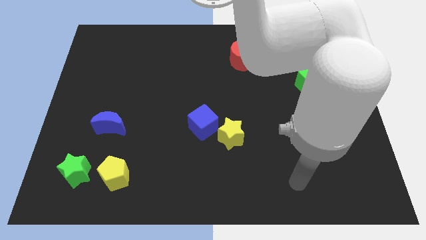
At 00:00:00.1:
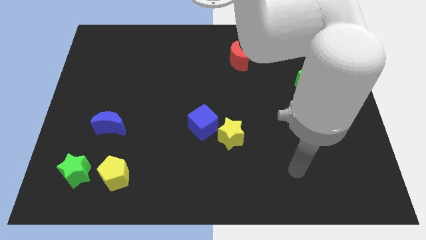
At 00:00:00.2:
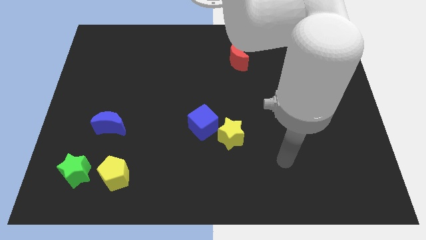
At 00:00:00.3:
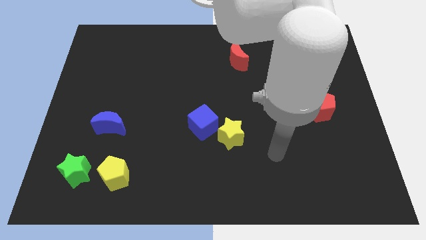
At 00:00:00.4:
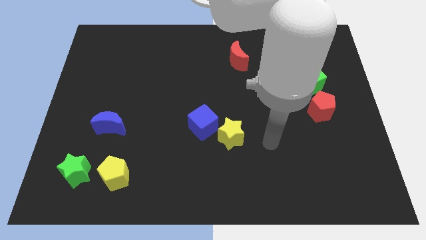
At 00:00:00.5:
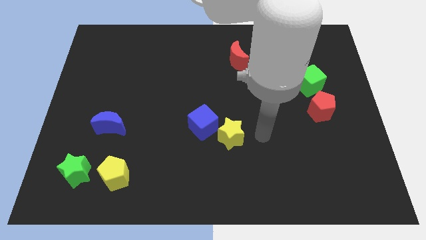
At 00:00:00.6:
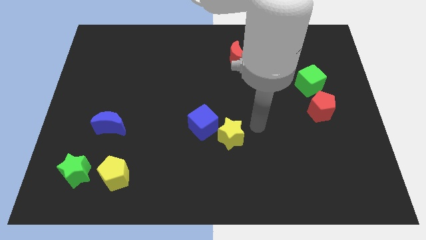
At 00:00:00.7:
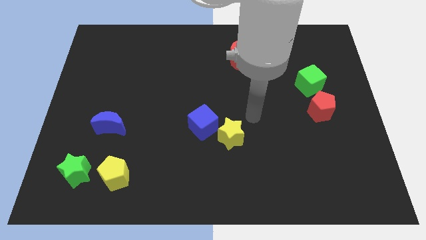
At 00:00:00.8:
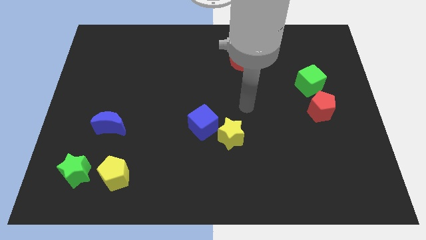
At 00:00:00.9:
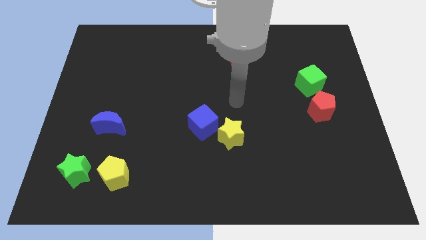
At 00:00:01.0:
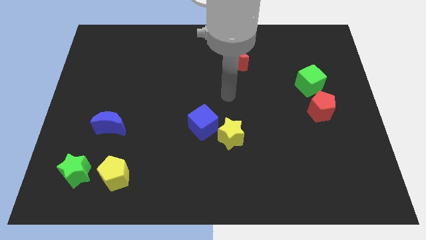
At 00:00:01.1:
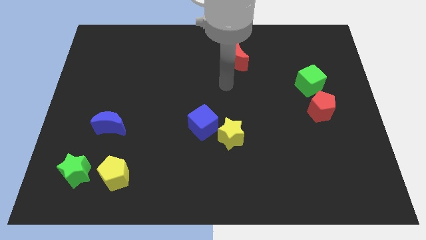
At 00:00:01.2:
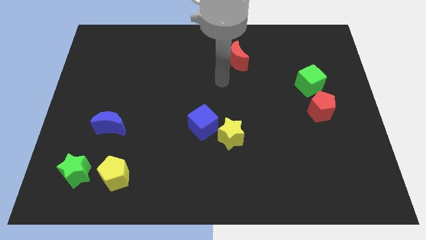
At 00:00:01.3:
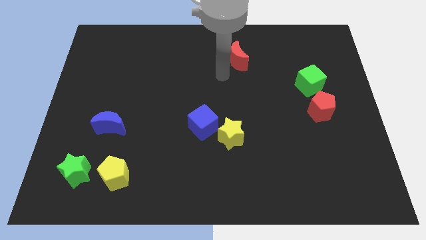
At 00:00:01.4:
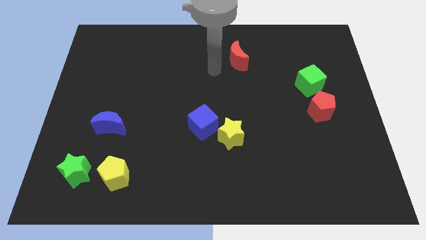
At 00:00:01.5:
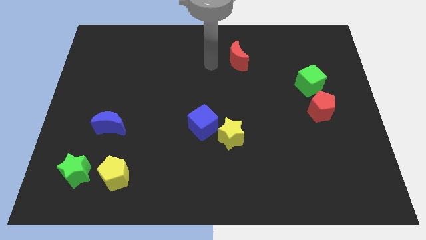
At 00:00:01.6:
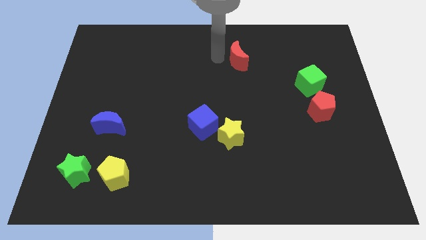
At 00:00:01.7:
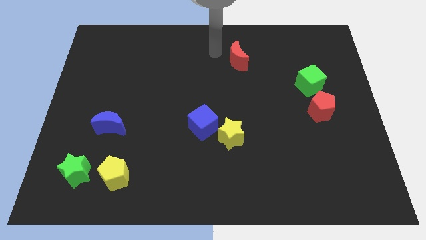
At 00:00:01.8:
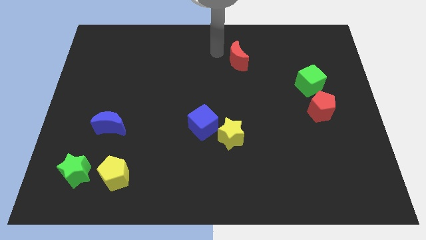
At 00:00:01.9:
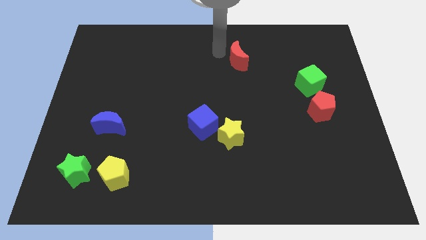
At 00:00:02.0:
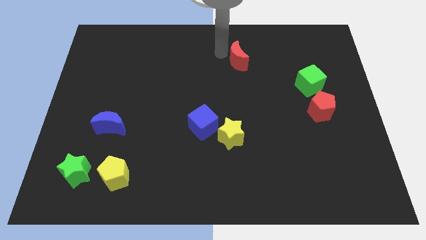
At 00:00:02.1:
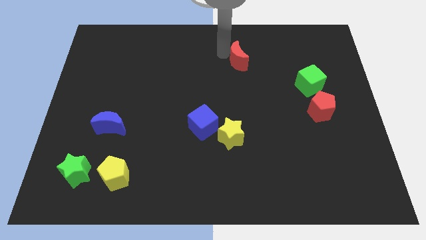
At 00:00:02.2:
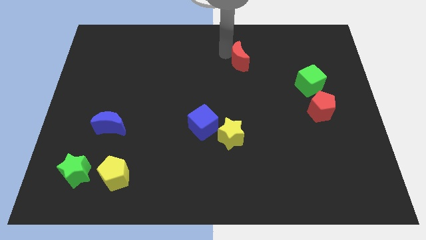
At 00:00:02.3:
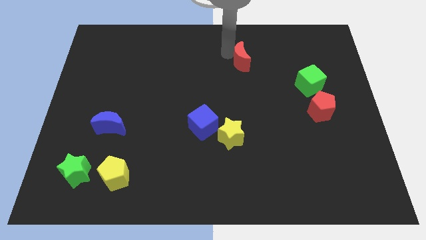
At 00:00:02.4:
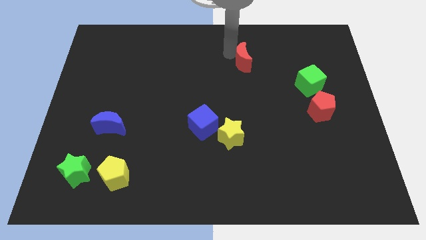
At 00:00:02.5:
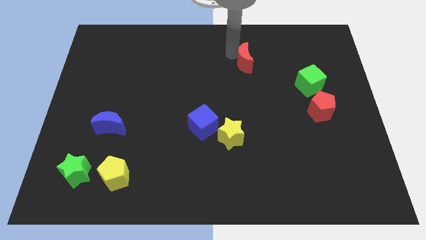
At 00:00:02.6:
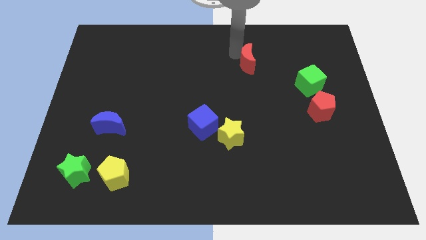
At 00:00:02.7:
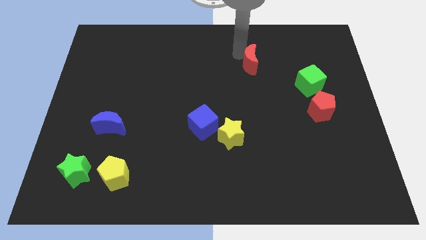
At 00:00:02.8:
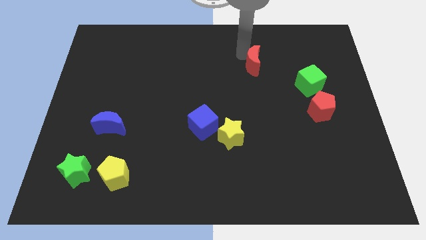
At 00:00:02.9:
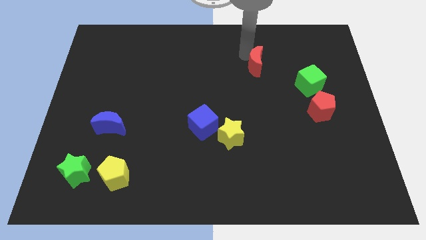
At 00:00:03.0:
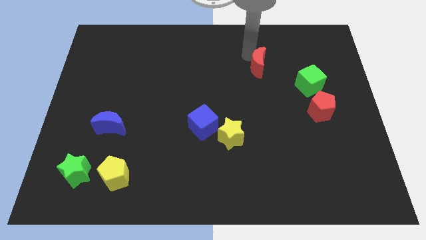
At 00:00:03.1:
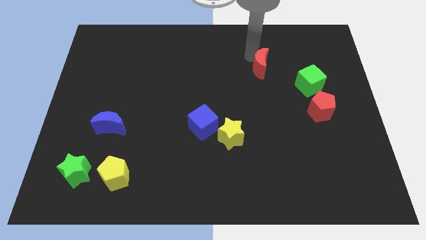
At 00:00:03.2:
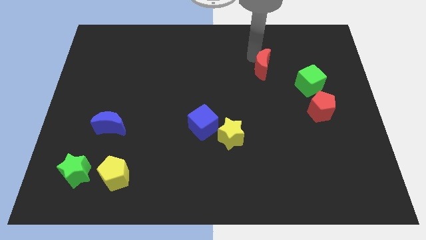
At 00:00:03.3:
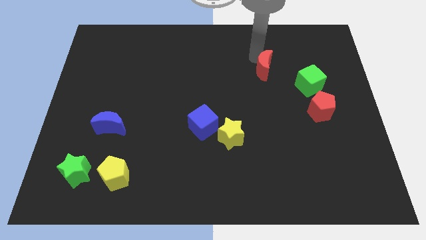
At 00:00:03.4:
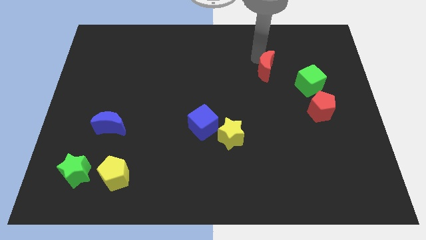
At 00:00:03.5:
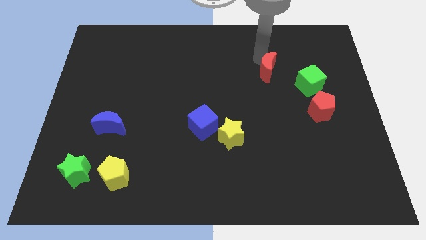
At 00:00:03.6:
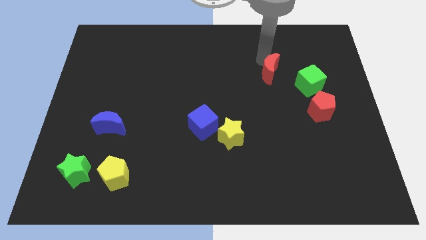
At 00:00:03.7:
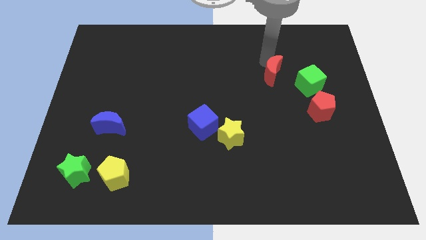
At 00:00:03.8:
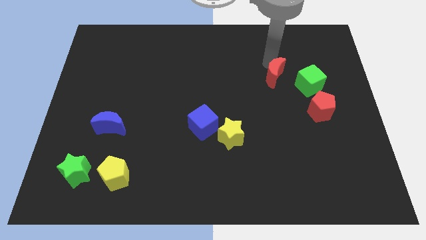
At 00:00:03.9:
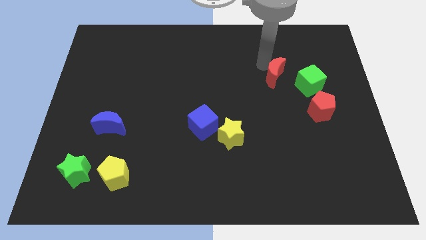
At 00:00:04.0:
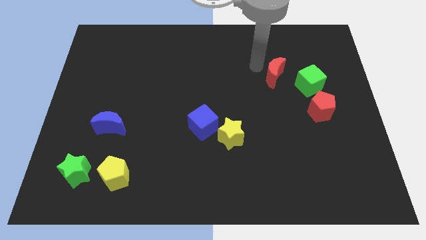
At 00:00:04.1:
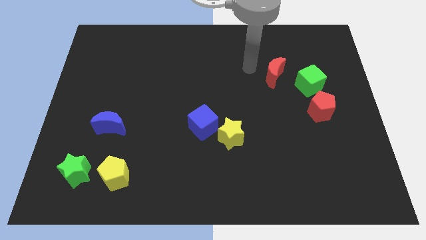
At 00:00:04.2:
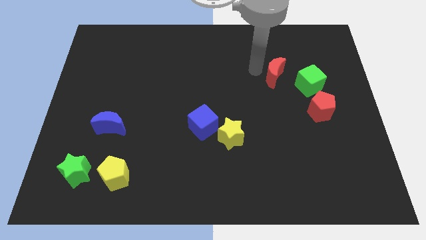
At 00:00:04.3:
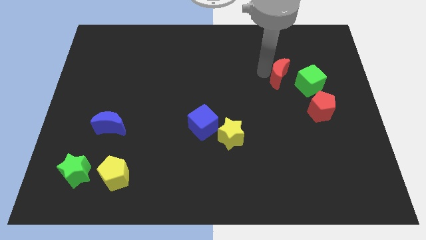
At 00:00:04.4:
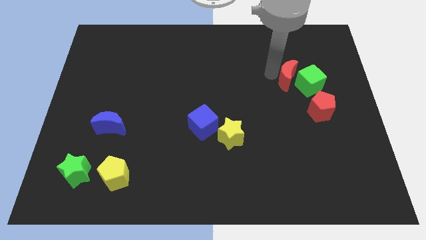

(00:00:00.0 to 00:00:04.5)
push the red moon towards the green cube

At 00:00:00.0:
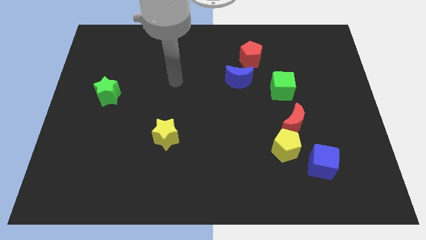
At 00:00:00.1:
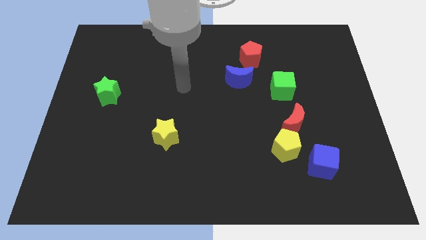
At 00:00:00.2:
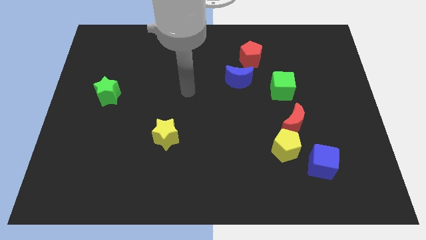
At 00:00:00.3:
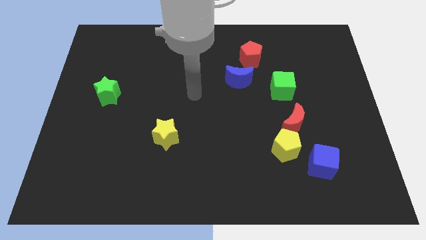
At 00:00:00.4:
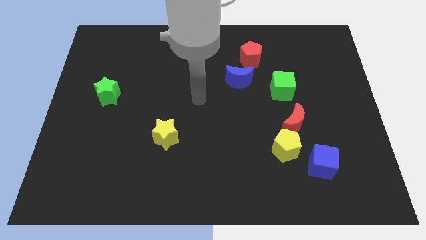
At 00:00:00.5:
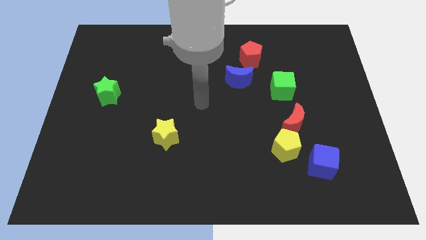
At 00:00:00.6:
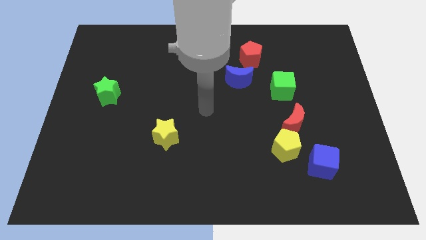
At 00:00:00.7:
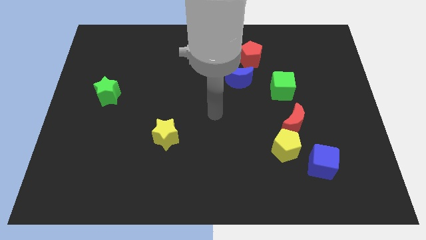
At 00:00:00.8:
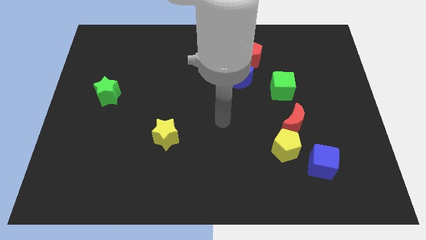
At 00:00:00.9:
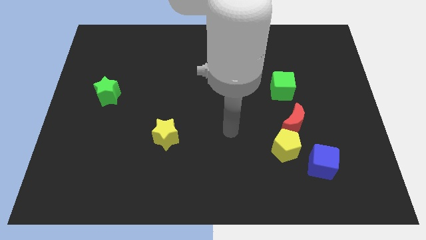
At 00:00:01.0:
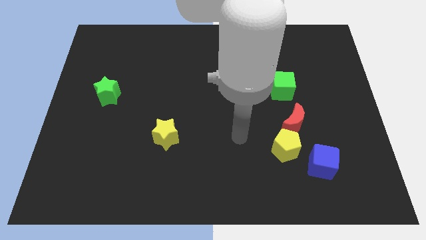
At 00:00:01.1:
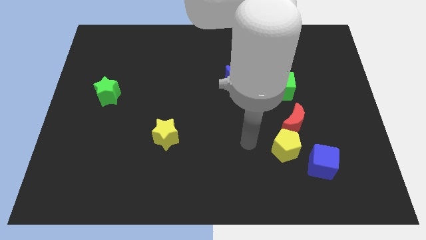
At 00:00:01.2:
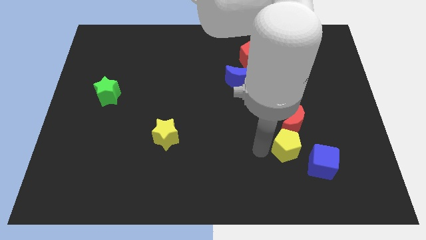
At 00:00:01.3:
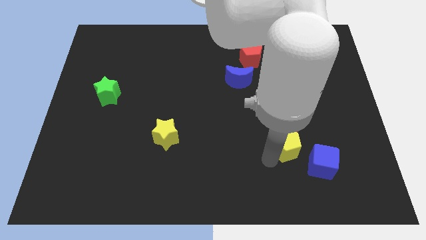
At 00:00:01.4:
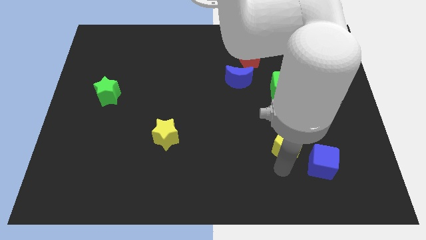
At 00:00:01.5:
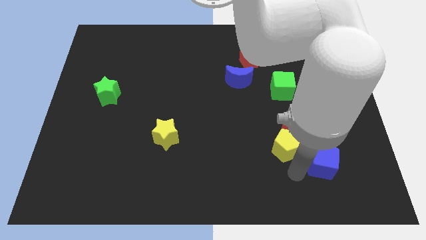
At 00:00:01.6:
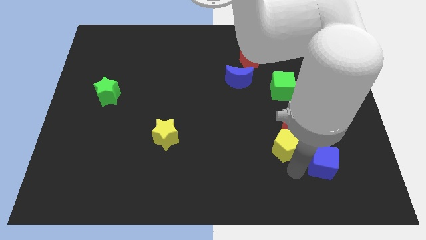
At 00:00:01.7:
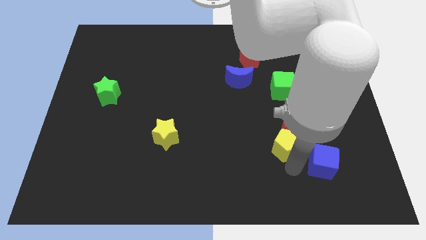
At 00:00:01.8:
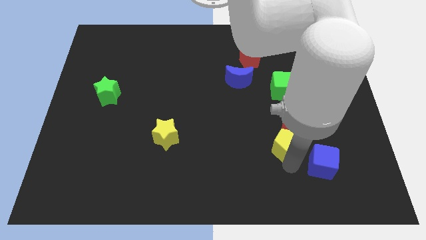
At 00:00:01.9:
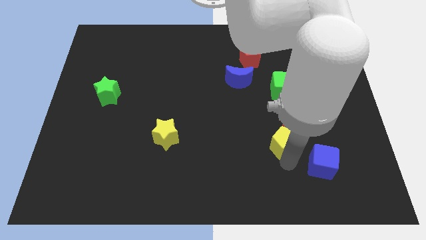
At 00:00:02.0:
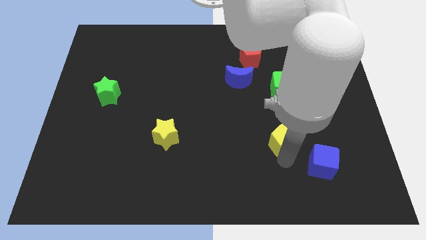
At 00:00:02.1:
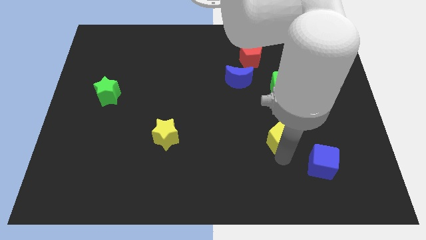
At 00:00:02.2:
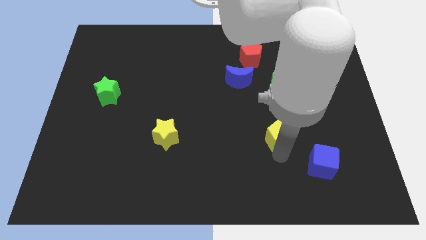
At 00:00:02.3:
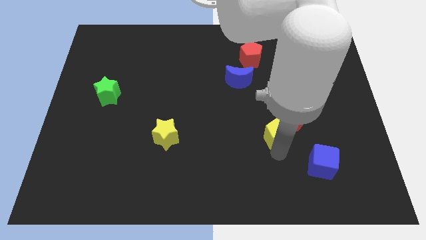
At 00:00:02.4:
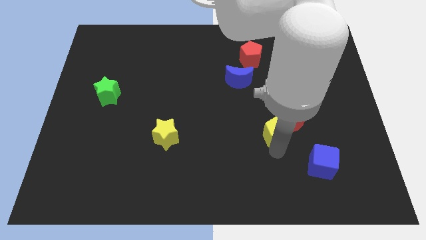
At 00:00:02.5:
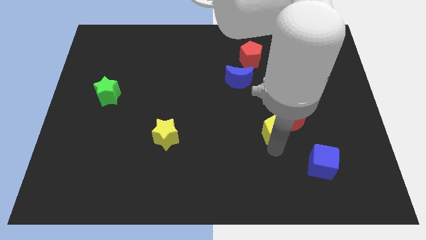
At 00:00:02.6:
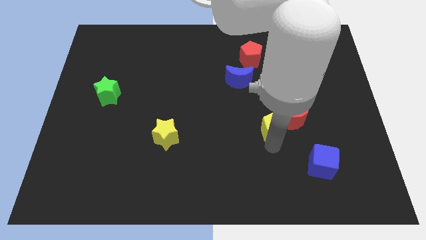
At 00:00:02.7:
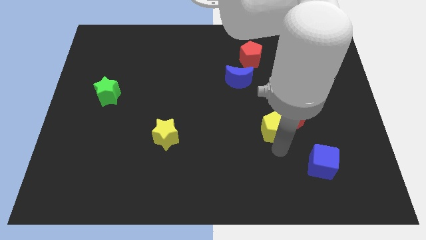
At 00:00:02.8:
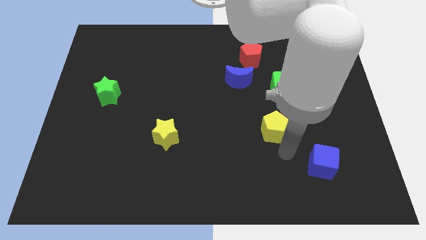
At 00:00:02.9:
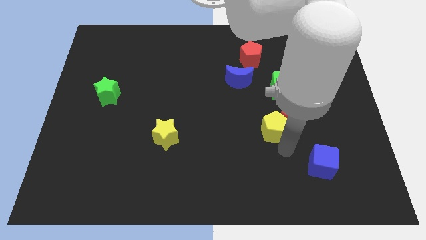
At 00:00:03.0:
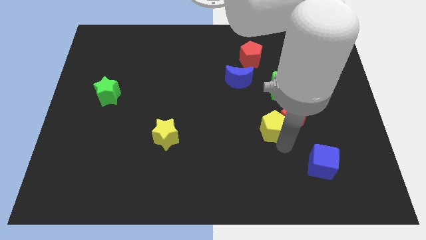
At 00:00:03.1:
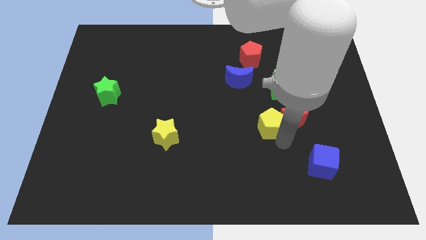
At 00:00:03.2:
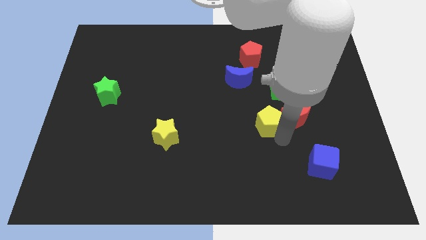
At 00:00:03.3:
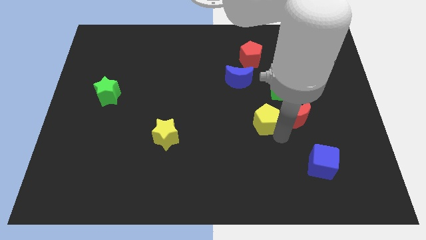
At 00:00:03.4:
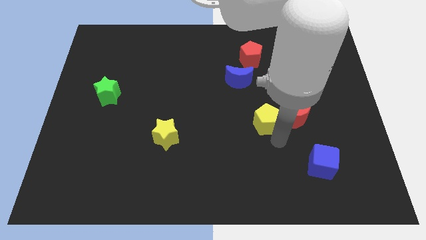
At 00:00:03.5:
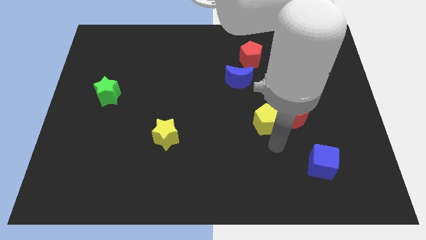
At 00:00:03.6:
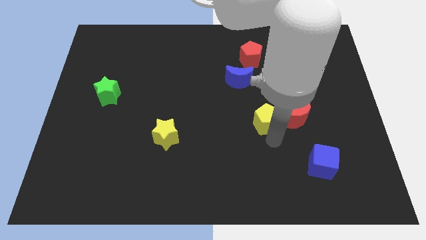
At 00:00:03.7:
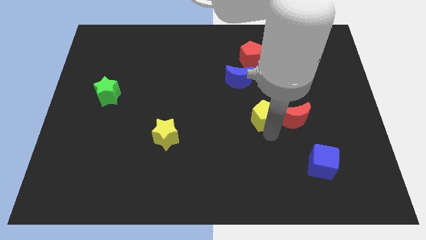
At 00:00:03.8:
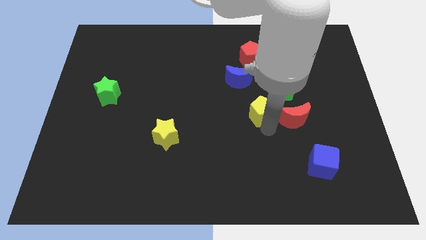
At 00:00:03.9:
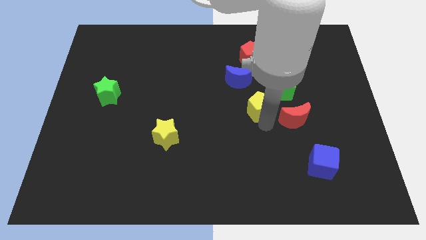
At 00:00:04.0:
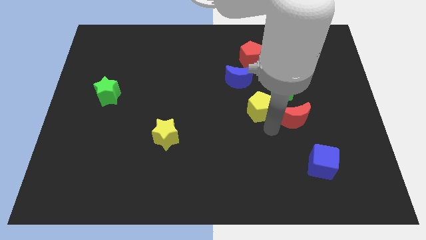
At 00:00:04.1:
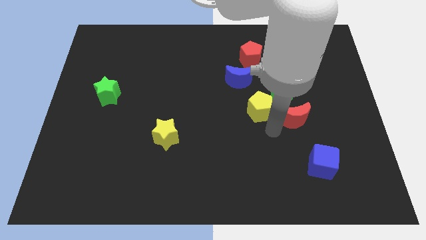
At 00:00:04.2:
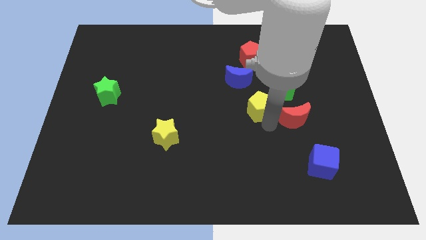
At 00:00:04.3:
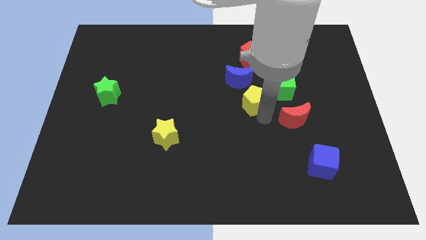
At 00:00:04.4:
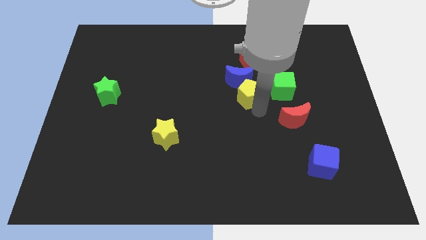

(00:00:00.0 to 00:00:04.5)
put the yellow pentagon next to the blue moon
